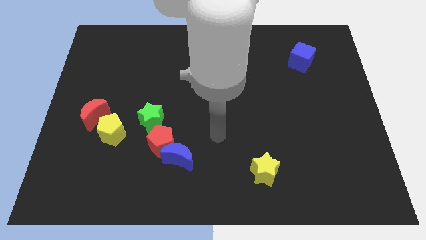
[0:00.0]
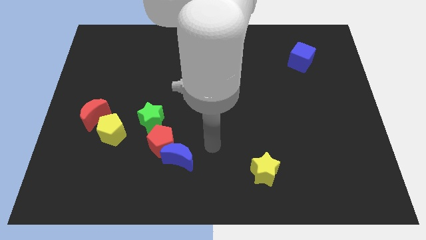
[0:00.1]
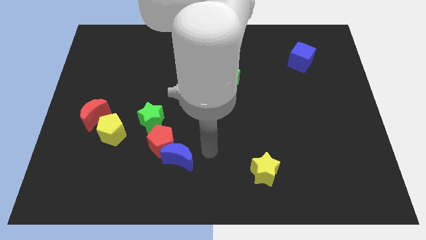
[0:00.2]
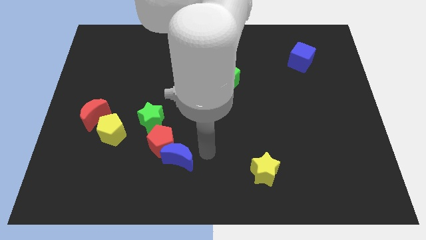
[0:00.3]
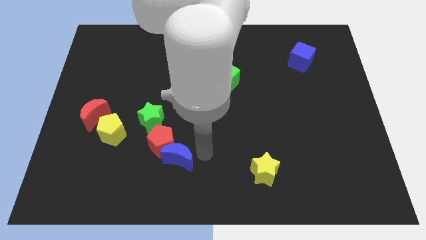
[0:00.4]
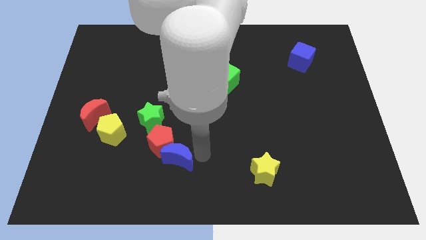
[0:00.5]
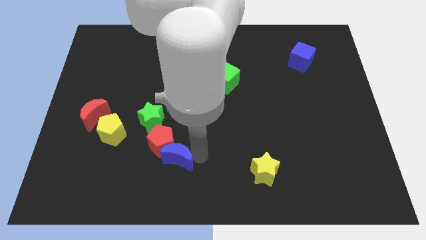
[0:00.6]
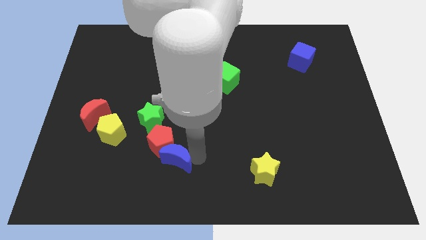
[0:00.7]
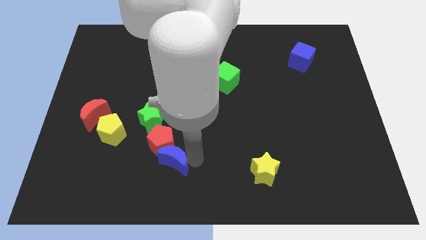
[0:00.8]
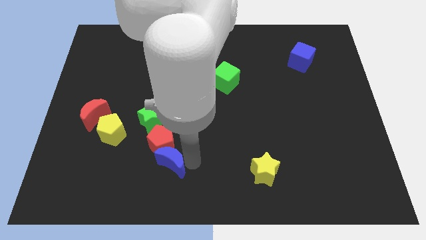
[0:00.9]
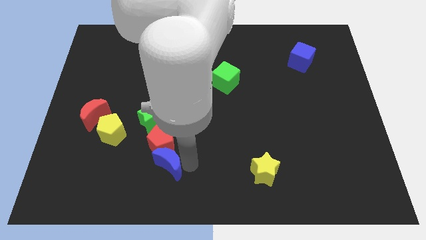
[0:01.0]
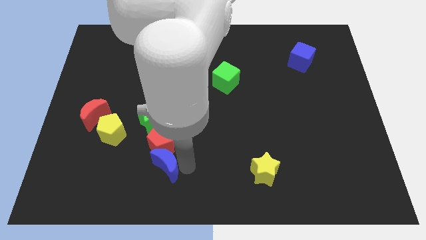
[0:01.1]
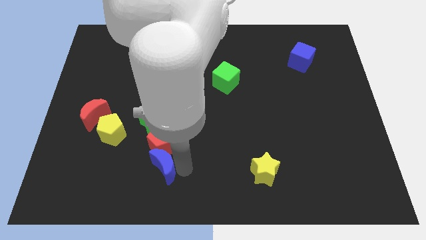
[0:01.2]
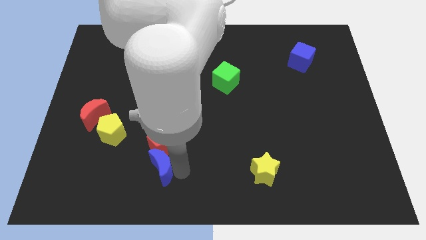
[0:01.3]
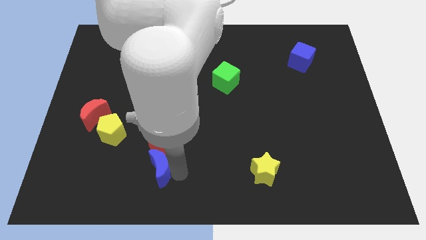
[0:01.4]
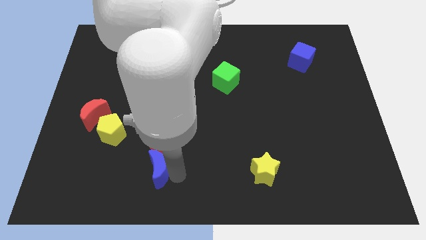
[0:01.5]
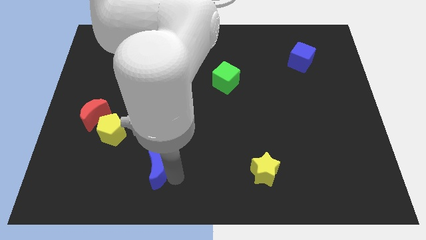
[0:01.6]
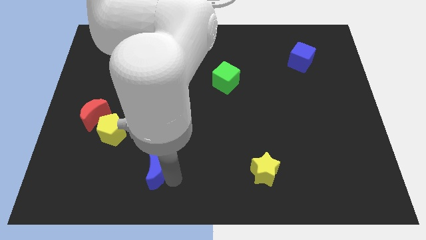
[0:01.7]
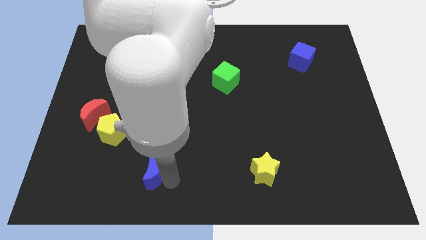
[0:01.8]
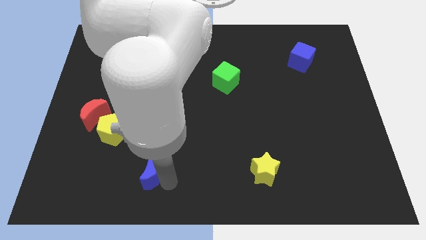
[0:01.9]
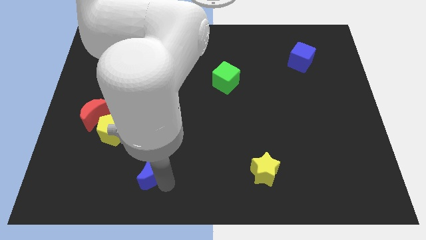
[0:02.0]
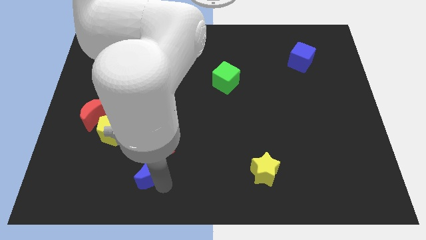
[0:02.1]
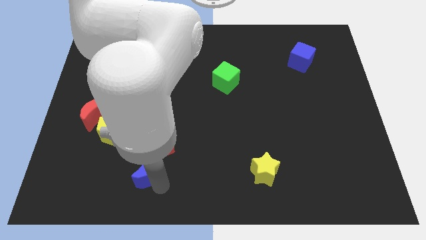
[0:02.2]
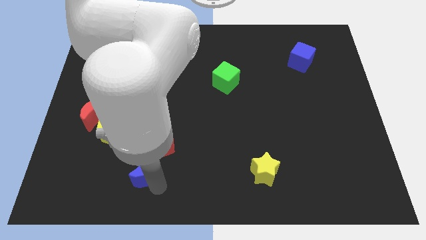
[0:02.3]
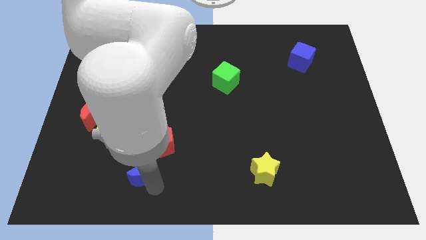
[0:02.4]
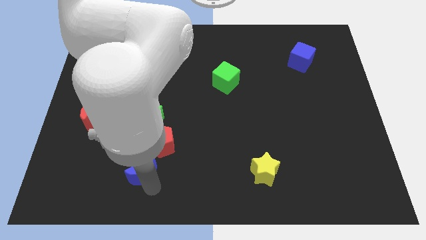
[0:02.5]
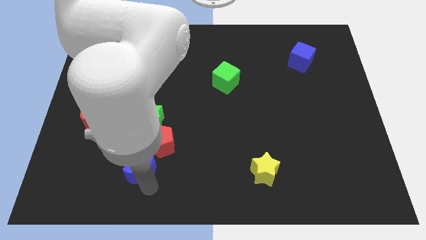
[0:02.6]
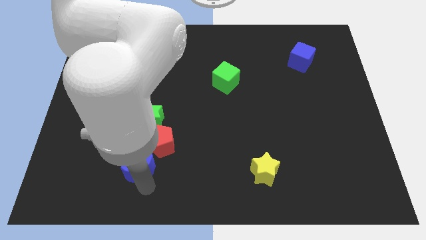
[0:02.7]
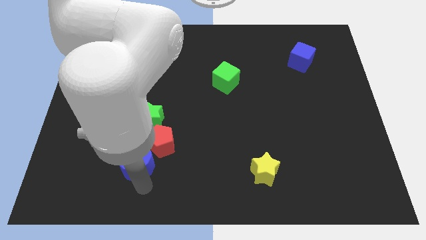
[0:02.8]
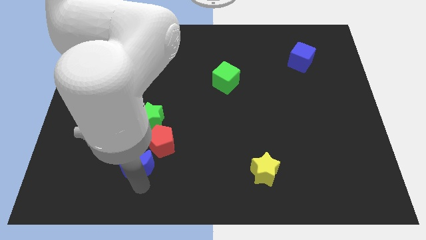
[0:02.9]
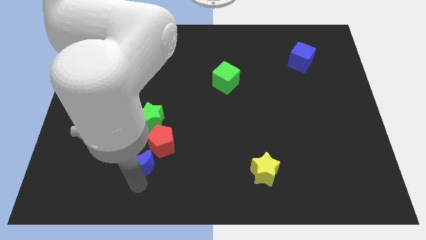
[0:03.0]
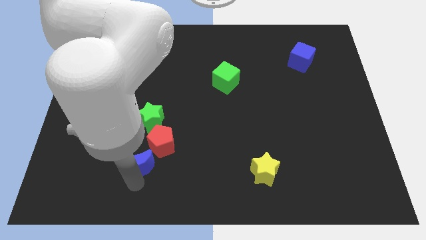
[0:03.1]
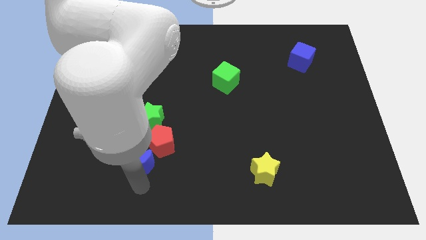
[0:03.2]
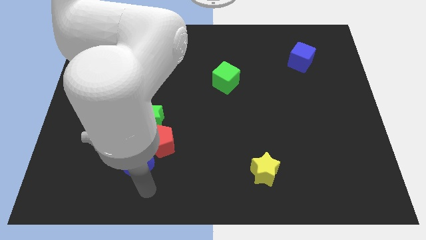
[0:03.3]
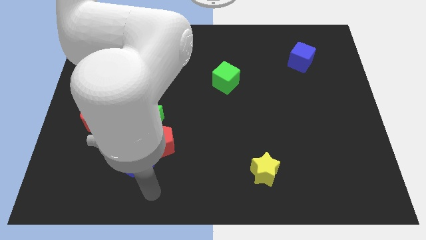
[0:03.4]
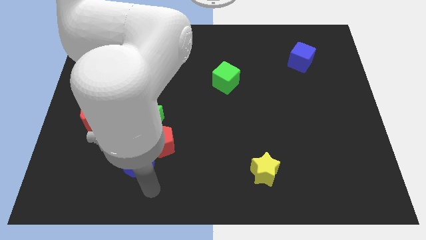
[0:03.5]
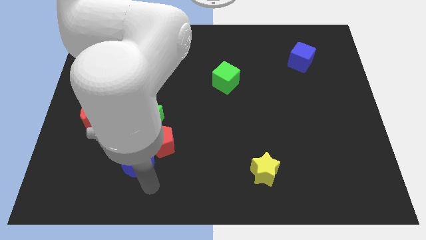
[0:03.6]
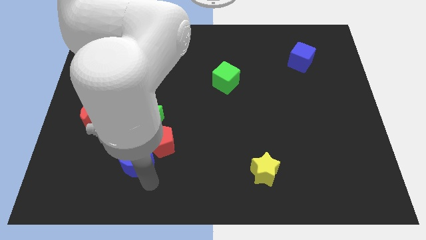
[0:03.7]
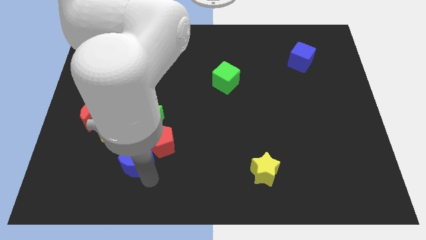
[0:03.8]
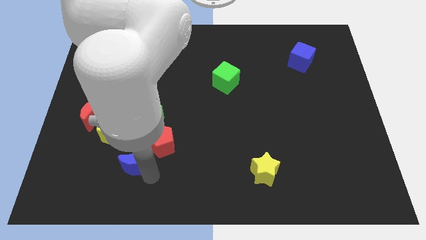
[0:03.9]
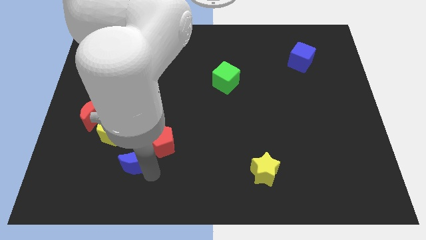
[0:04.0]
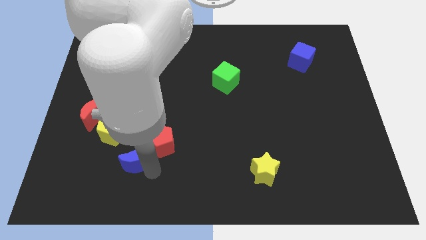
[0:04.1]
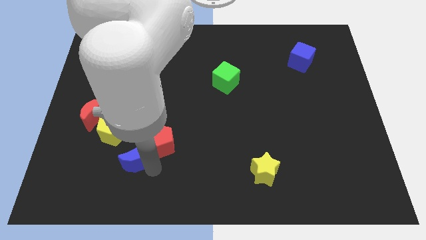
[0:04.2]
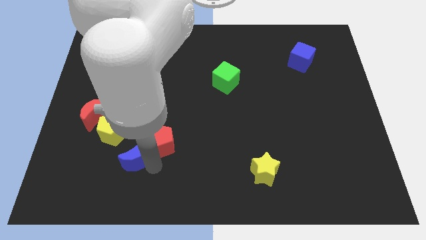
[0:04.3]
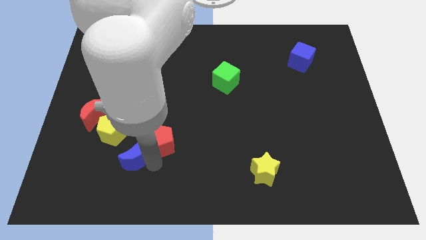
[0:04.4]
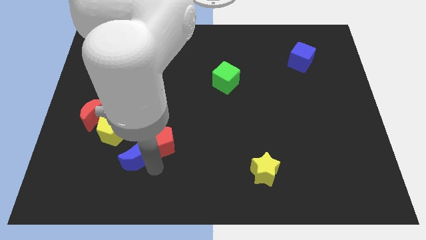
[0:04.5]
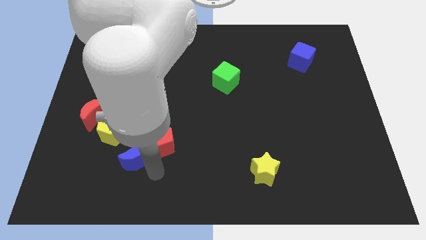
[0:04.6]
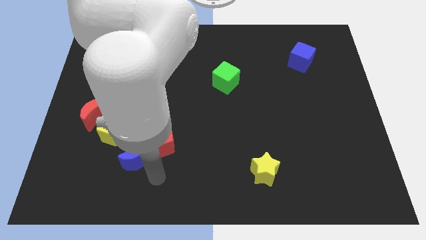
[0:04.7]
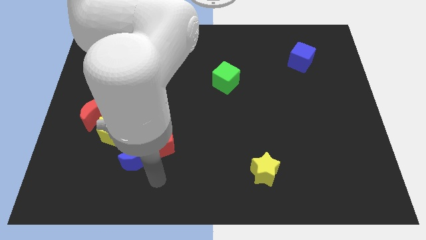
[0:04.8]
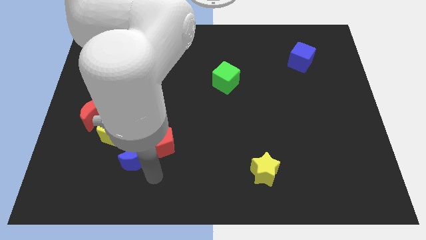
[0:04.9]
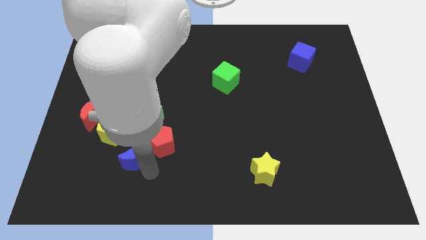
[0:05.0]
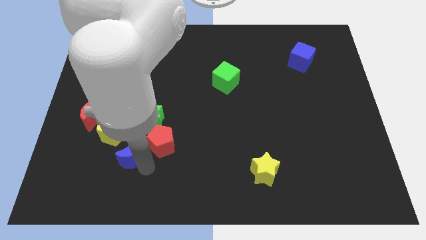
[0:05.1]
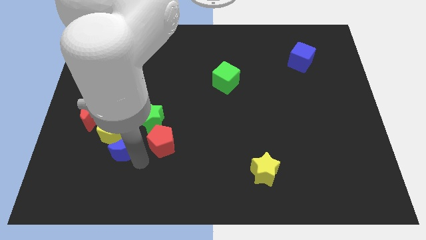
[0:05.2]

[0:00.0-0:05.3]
put the blue moon towards the yellow pentagon

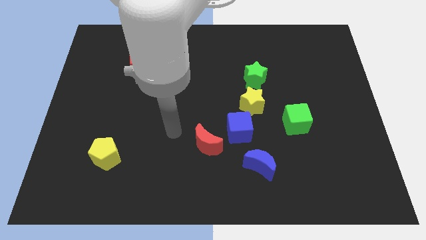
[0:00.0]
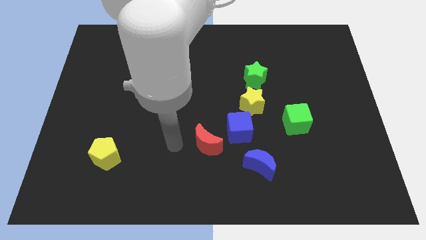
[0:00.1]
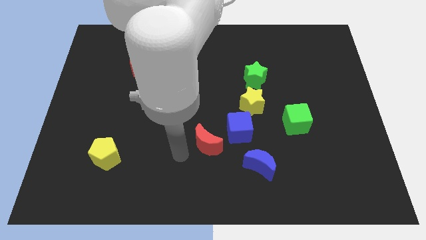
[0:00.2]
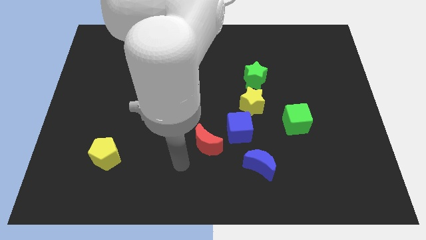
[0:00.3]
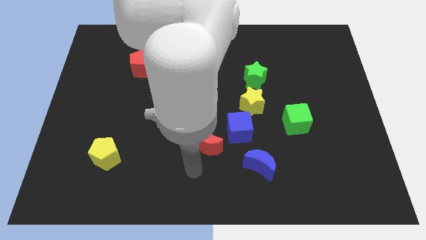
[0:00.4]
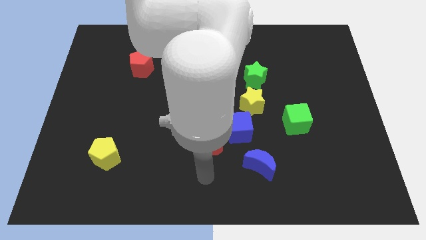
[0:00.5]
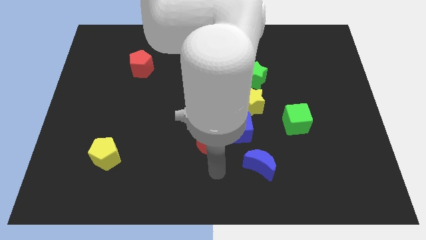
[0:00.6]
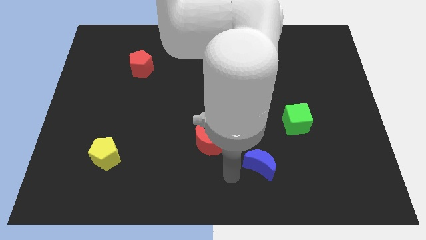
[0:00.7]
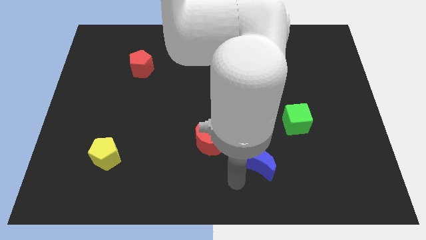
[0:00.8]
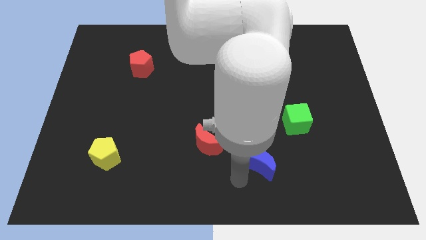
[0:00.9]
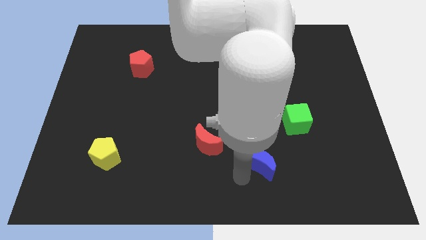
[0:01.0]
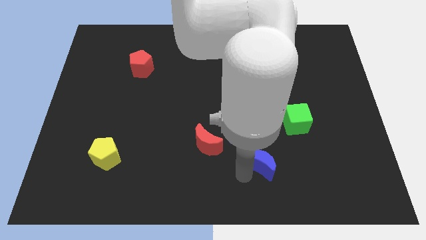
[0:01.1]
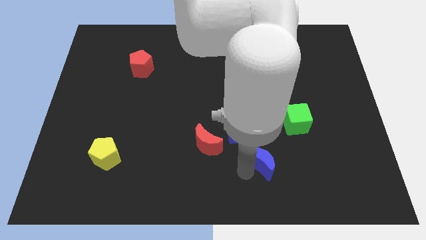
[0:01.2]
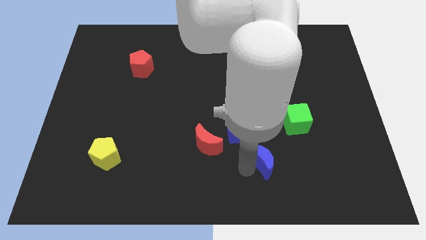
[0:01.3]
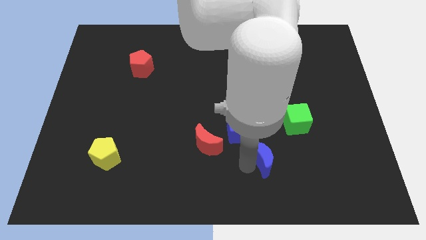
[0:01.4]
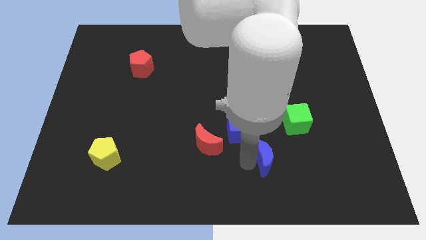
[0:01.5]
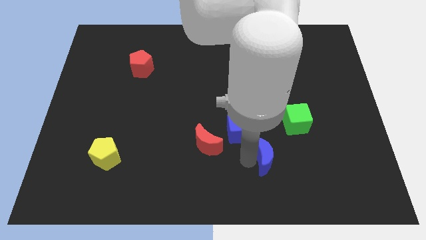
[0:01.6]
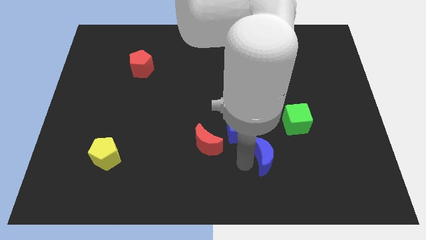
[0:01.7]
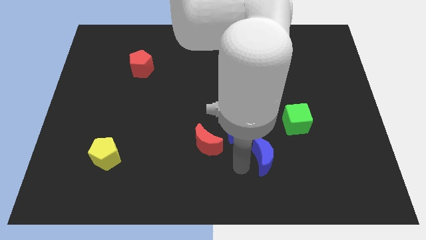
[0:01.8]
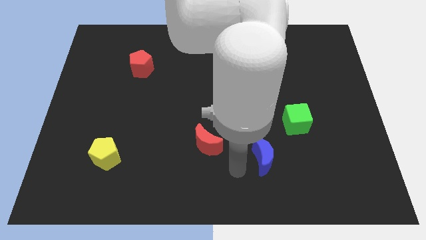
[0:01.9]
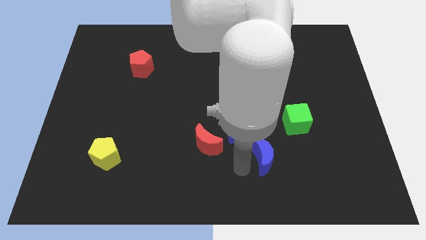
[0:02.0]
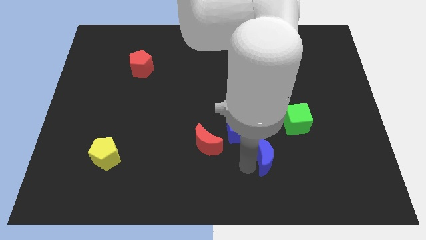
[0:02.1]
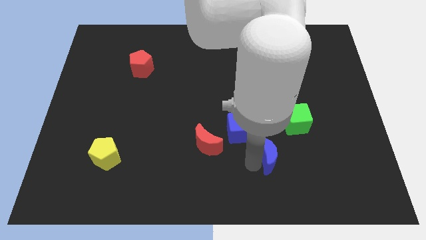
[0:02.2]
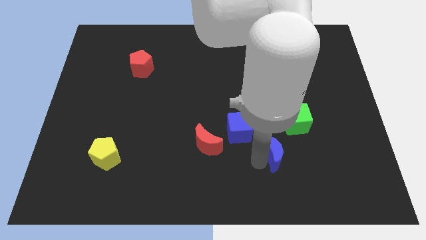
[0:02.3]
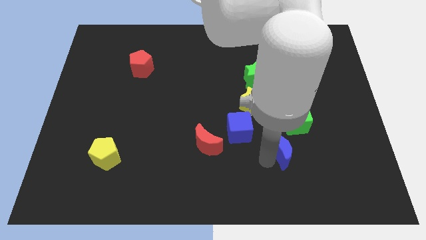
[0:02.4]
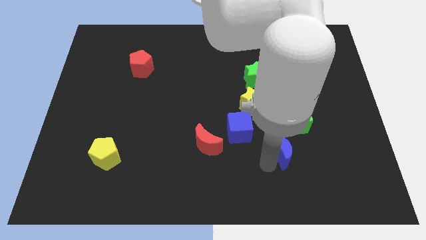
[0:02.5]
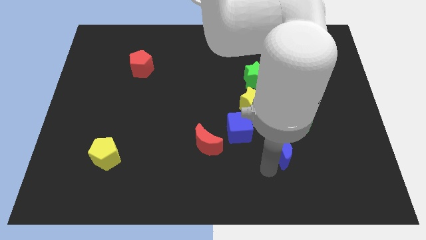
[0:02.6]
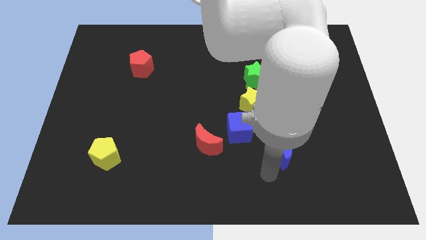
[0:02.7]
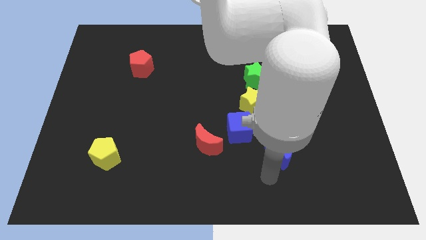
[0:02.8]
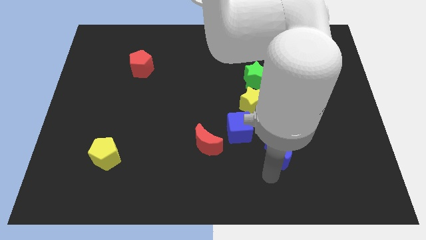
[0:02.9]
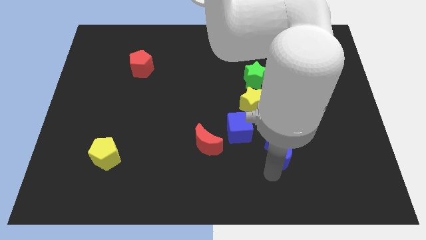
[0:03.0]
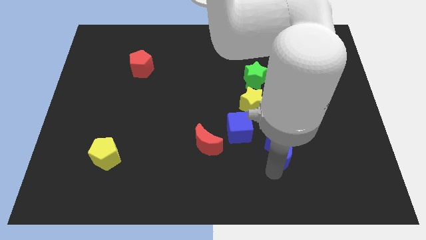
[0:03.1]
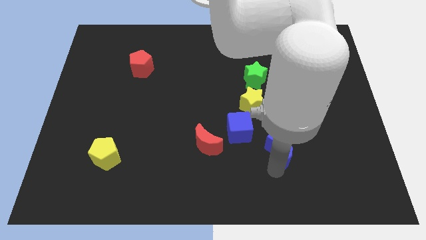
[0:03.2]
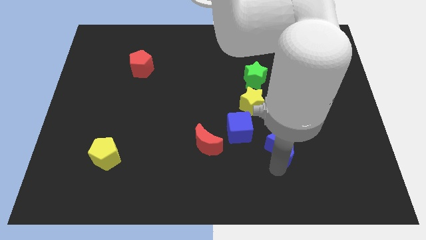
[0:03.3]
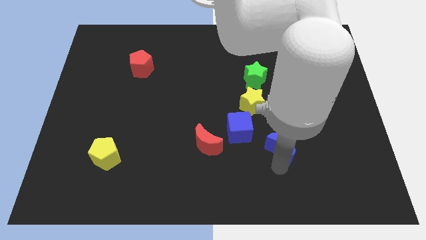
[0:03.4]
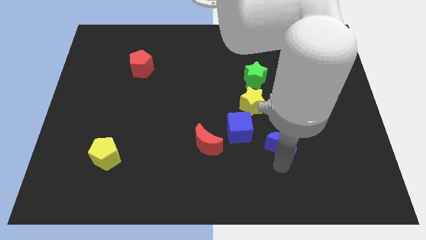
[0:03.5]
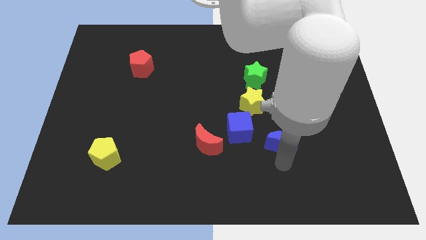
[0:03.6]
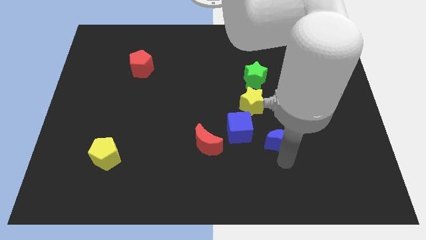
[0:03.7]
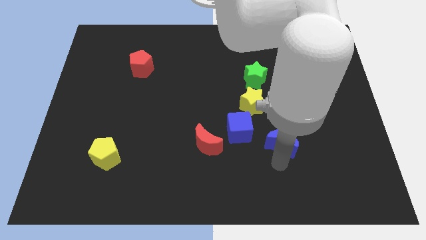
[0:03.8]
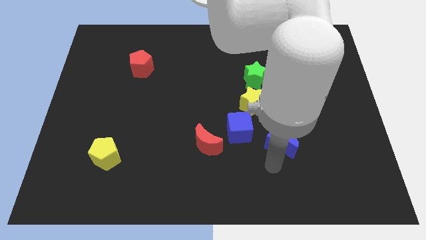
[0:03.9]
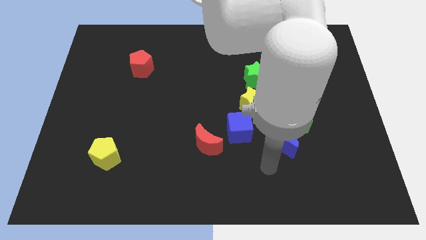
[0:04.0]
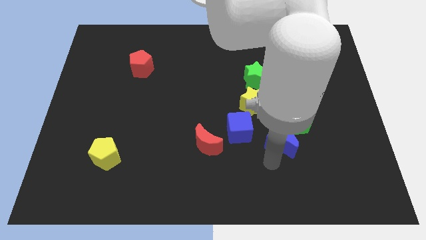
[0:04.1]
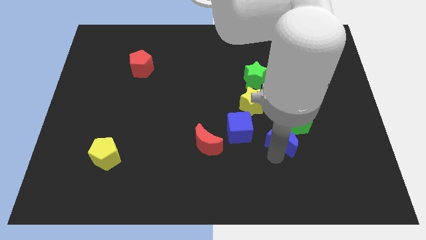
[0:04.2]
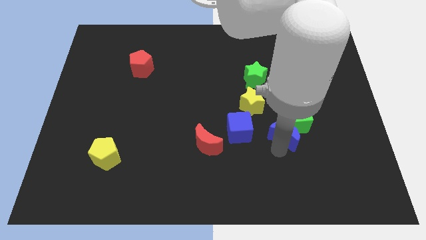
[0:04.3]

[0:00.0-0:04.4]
push the blue moon close to the green cube
